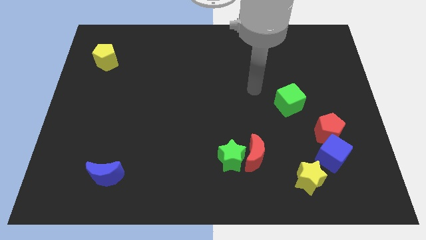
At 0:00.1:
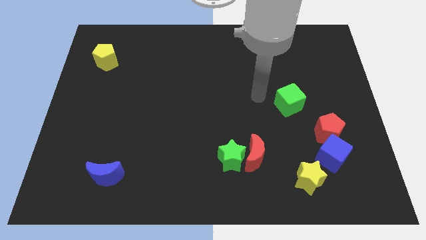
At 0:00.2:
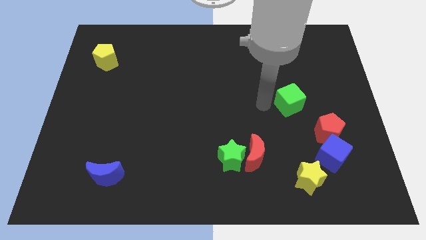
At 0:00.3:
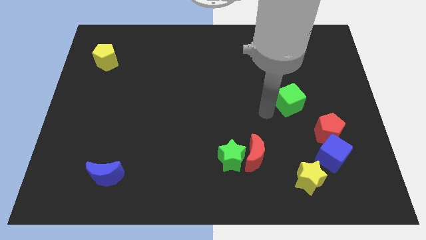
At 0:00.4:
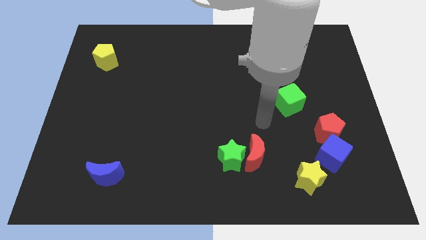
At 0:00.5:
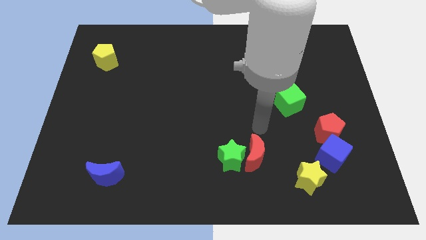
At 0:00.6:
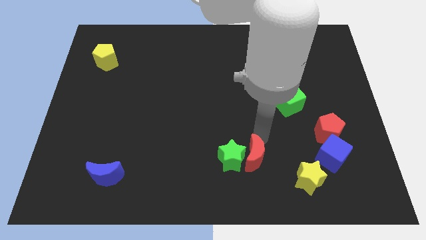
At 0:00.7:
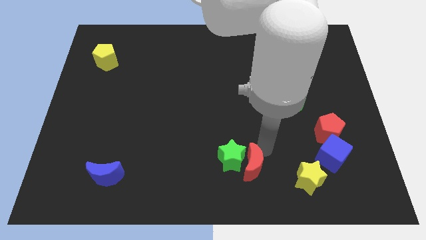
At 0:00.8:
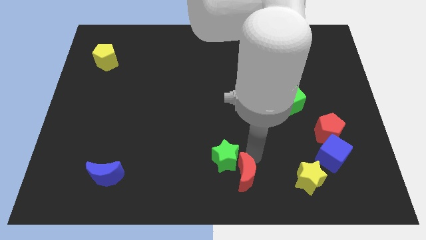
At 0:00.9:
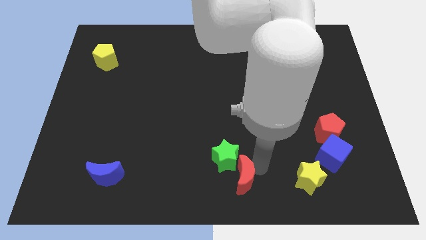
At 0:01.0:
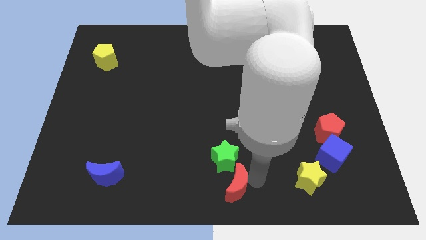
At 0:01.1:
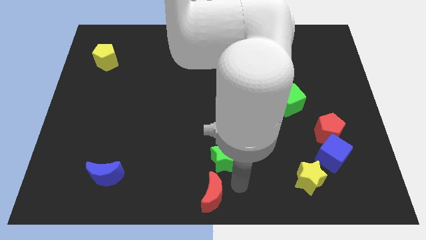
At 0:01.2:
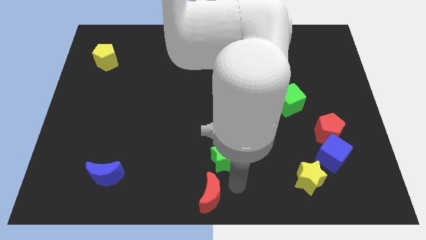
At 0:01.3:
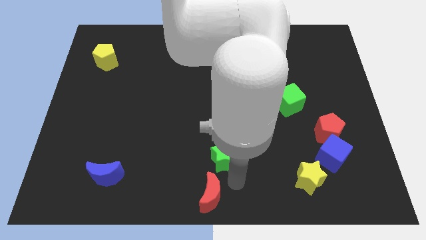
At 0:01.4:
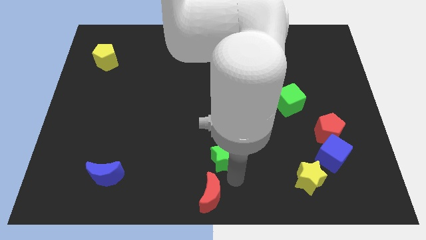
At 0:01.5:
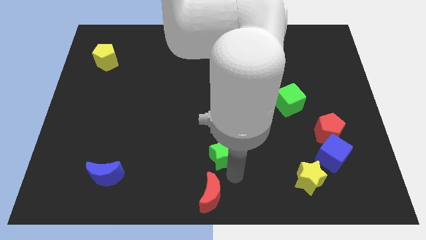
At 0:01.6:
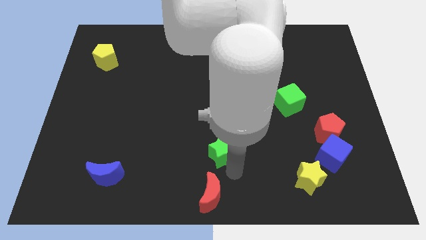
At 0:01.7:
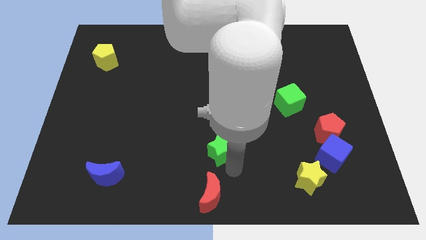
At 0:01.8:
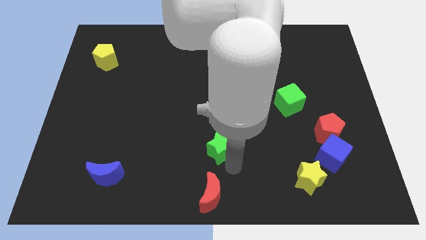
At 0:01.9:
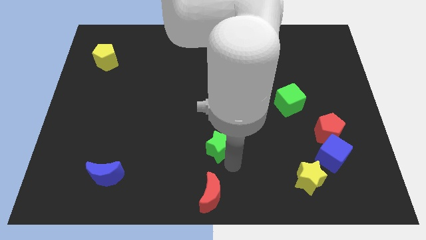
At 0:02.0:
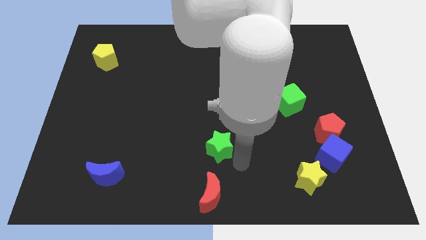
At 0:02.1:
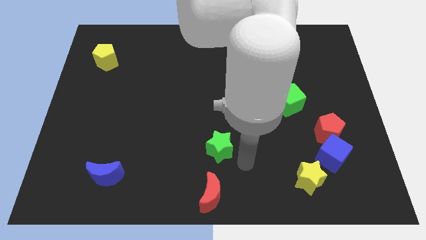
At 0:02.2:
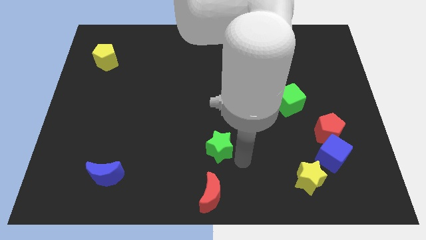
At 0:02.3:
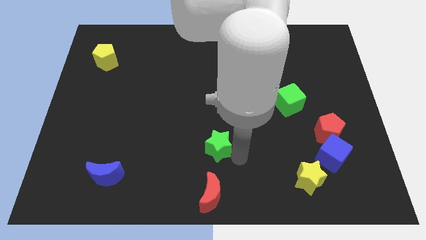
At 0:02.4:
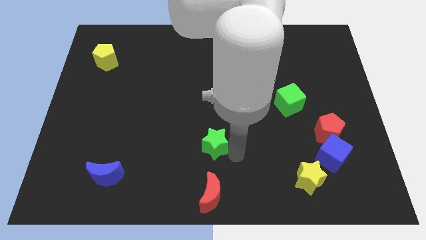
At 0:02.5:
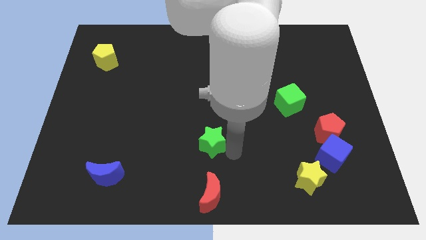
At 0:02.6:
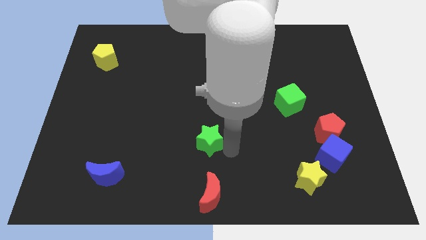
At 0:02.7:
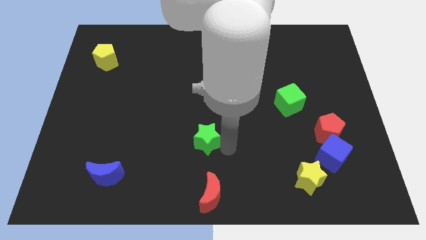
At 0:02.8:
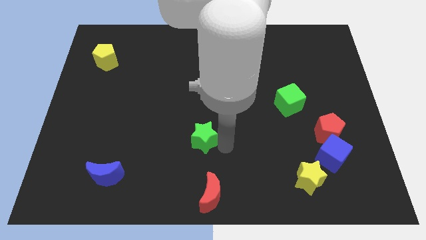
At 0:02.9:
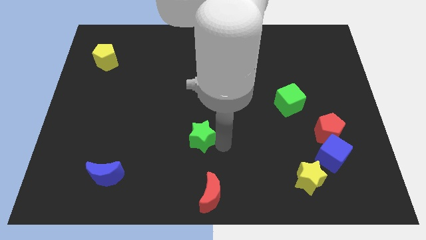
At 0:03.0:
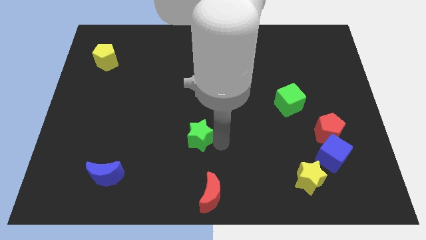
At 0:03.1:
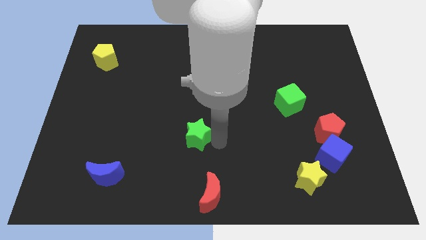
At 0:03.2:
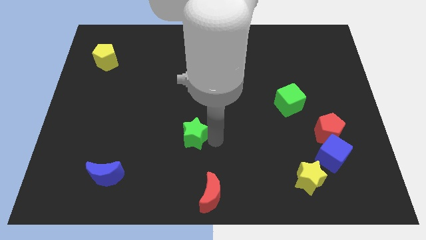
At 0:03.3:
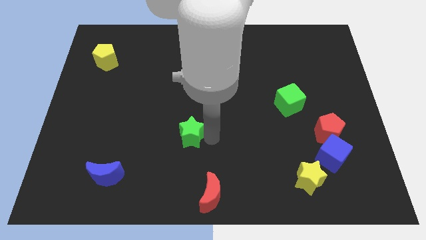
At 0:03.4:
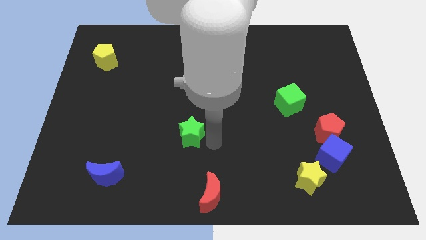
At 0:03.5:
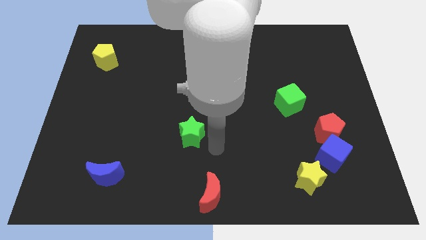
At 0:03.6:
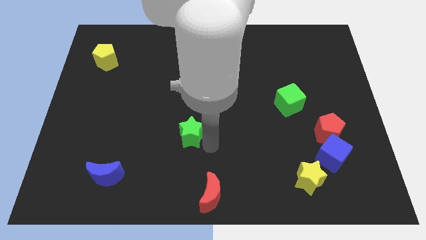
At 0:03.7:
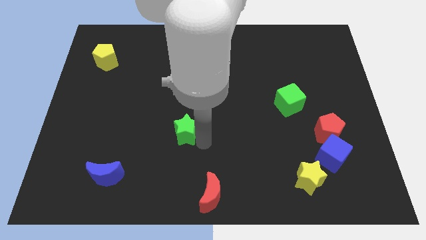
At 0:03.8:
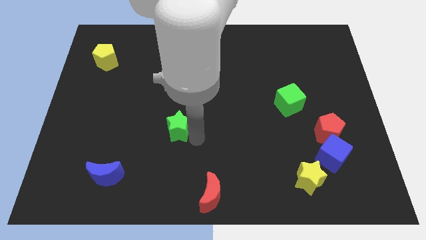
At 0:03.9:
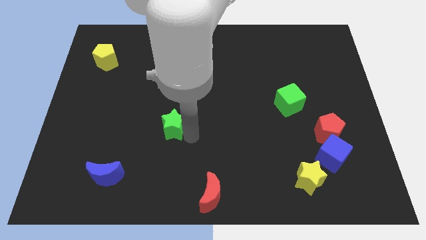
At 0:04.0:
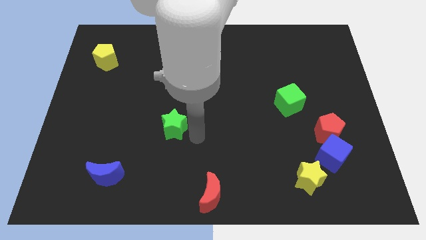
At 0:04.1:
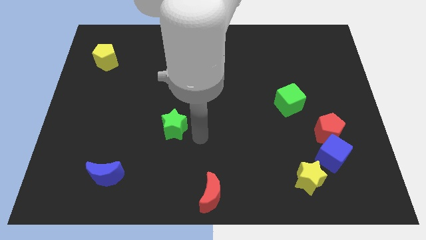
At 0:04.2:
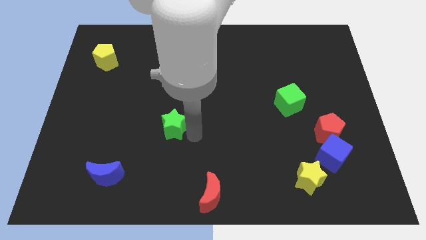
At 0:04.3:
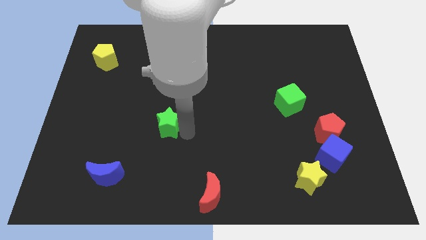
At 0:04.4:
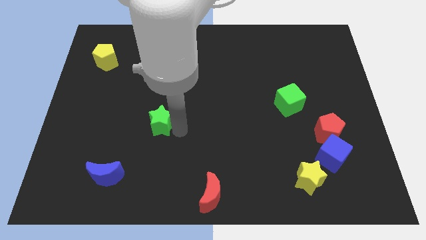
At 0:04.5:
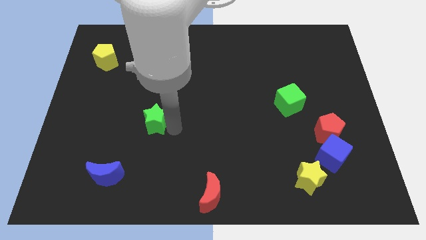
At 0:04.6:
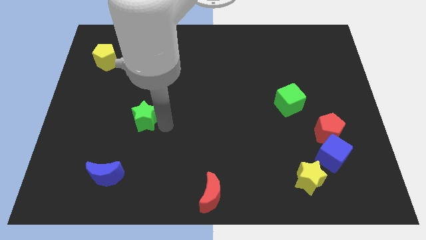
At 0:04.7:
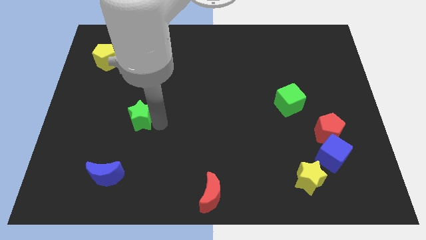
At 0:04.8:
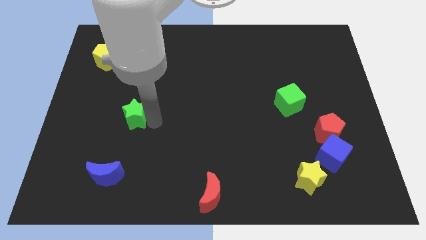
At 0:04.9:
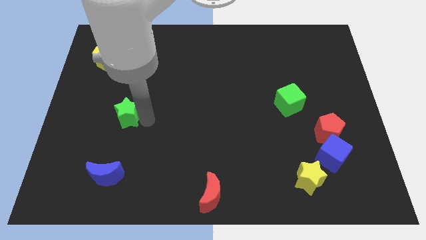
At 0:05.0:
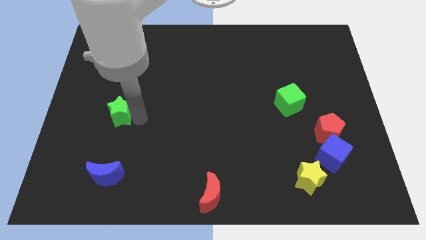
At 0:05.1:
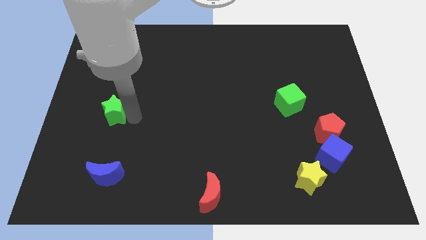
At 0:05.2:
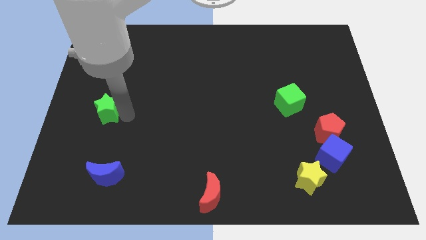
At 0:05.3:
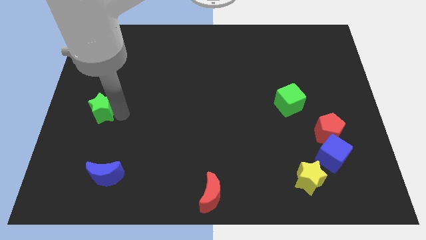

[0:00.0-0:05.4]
push the green star to the center left

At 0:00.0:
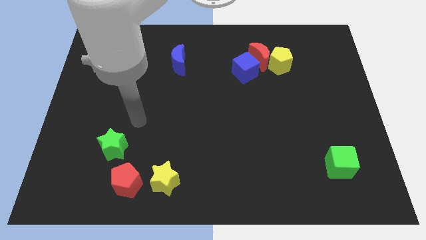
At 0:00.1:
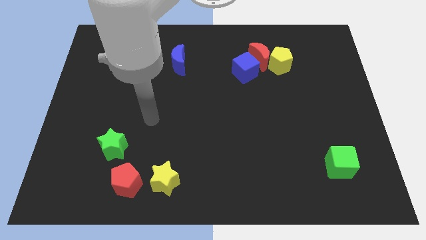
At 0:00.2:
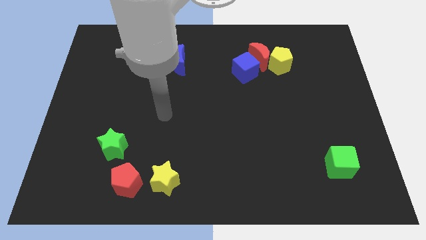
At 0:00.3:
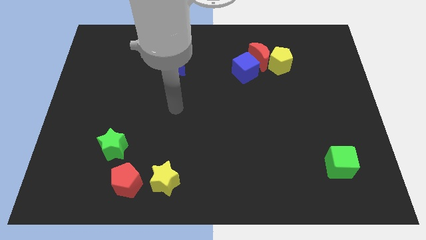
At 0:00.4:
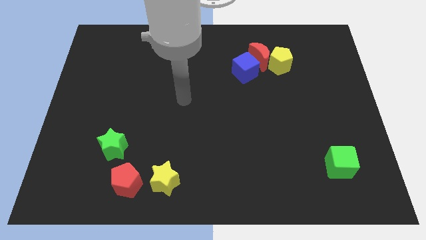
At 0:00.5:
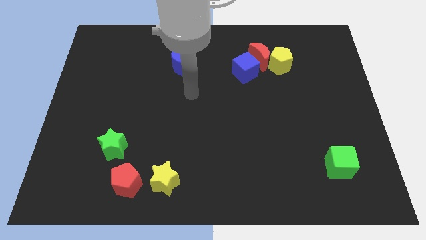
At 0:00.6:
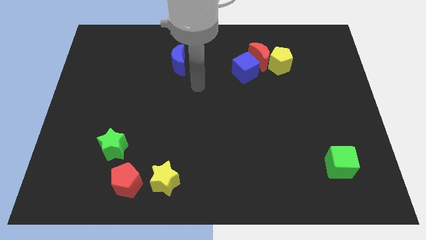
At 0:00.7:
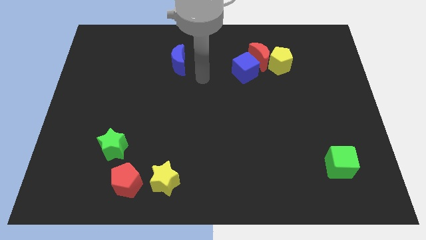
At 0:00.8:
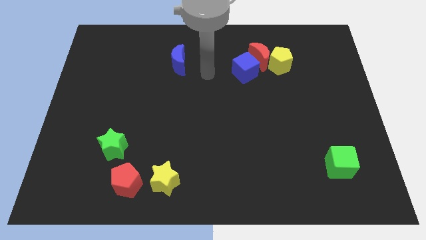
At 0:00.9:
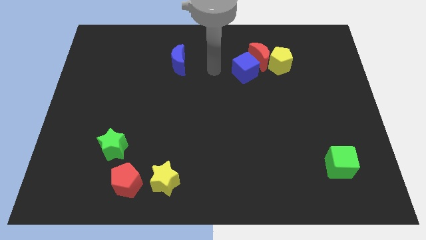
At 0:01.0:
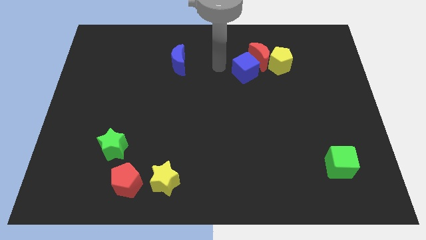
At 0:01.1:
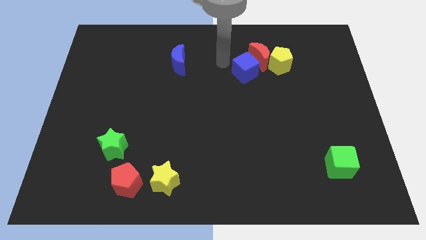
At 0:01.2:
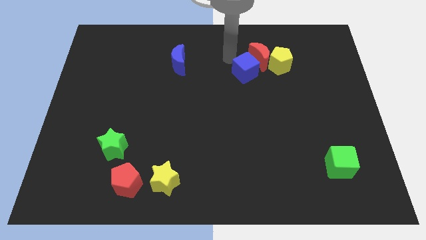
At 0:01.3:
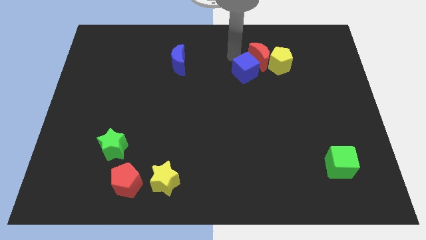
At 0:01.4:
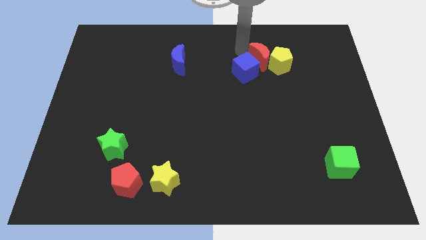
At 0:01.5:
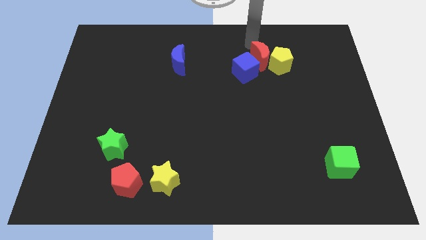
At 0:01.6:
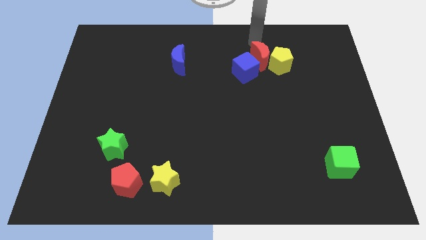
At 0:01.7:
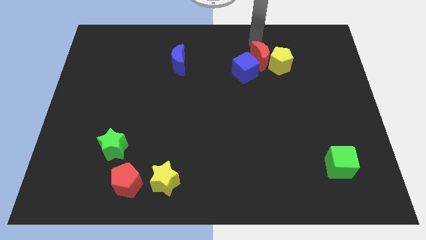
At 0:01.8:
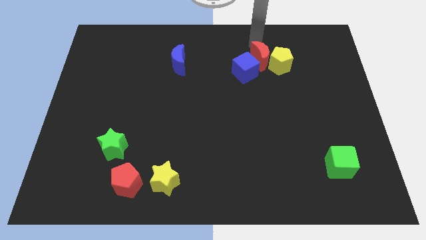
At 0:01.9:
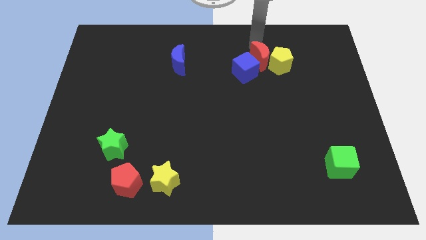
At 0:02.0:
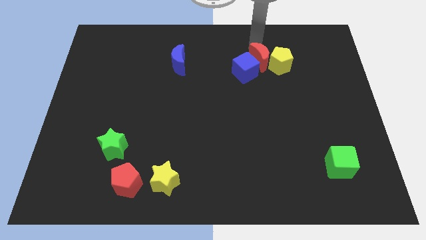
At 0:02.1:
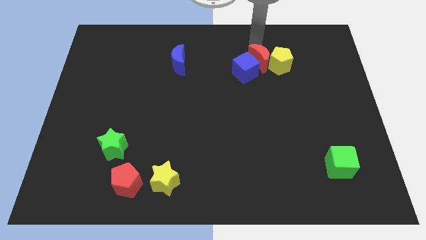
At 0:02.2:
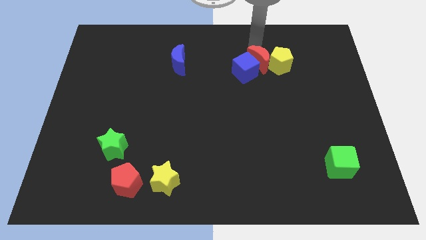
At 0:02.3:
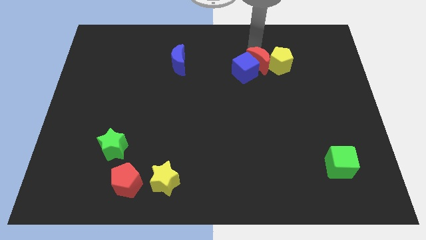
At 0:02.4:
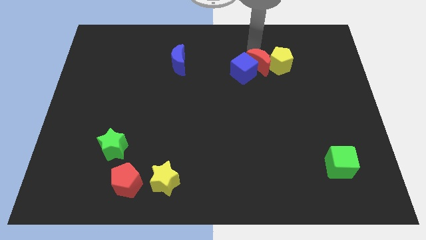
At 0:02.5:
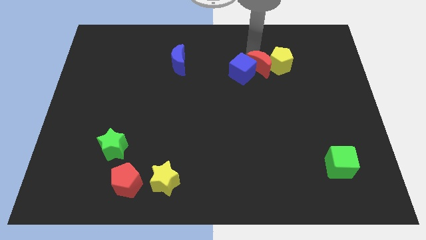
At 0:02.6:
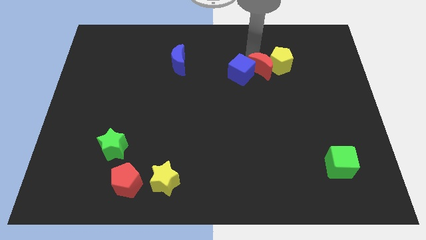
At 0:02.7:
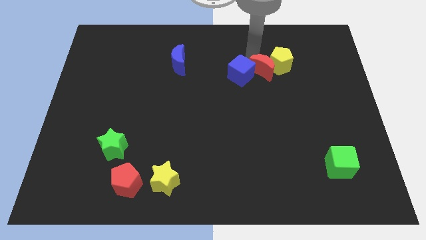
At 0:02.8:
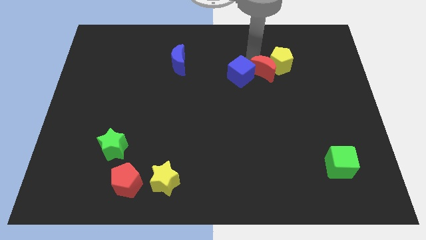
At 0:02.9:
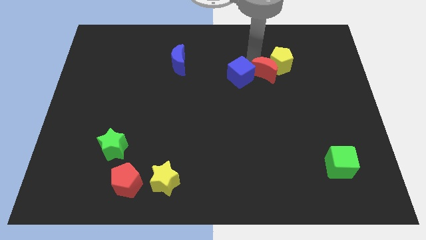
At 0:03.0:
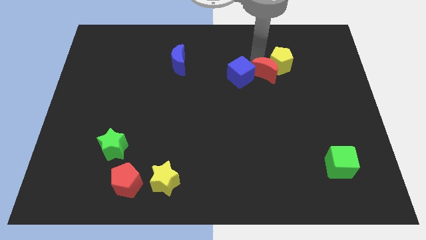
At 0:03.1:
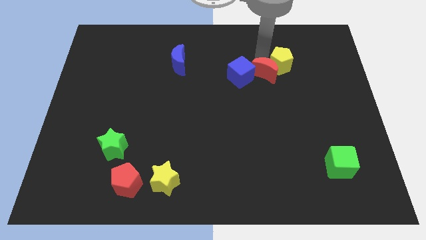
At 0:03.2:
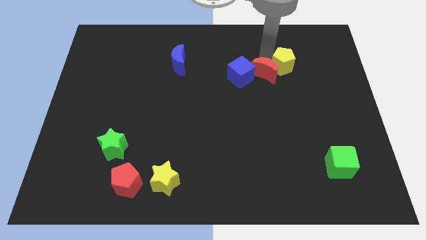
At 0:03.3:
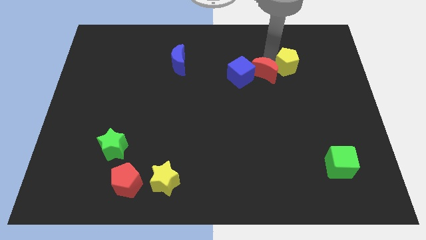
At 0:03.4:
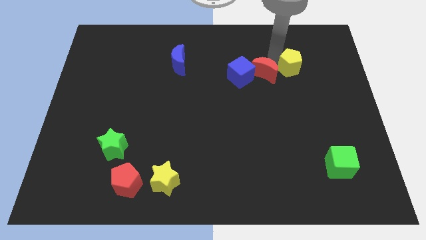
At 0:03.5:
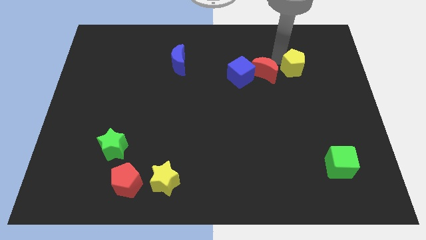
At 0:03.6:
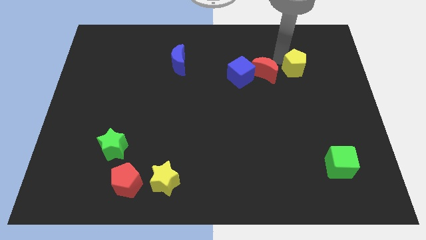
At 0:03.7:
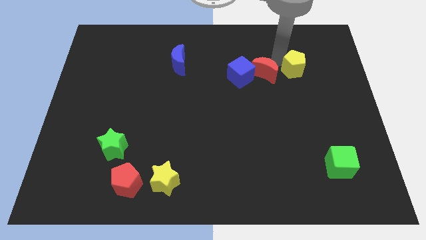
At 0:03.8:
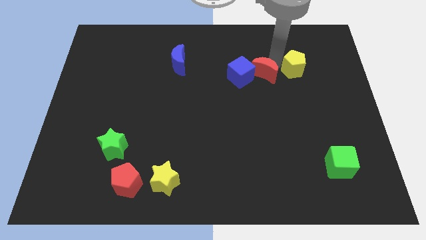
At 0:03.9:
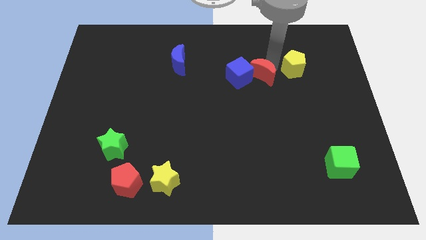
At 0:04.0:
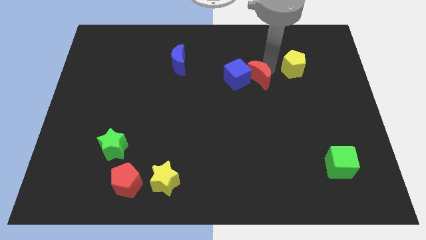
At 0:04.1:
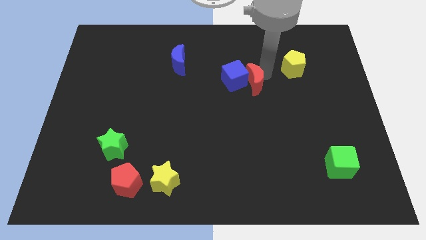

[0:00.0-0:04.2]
move the red moon to the center of the board
